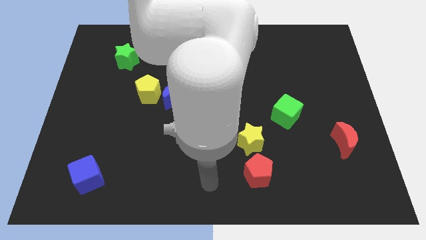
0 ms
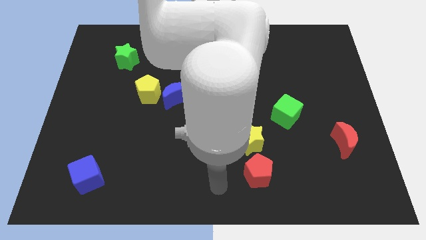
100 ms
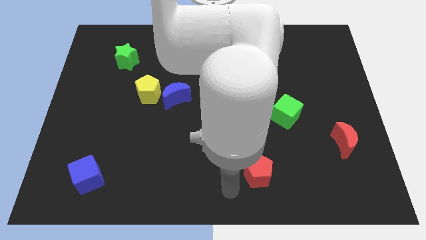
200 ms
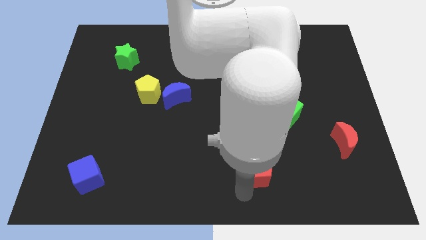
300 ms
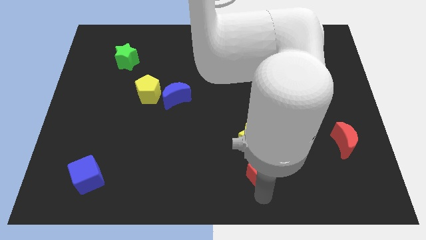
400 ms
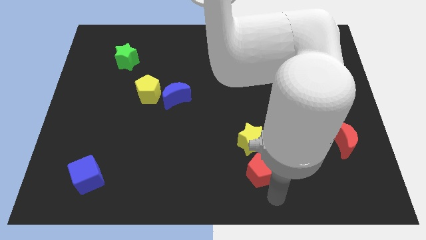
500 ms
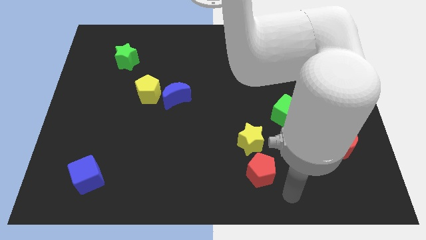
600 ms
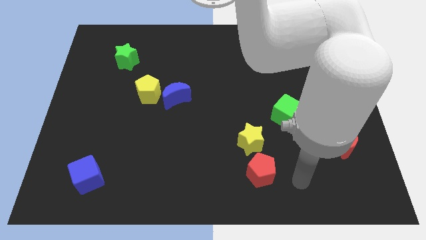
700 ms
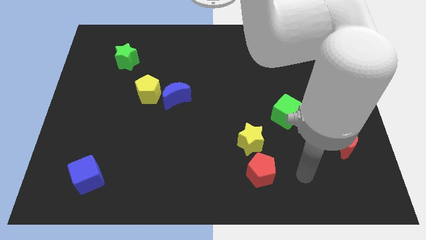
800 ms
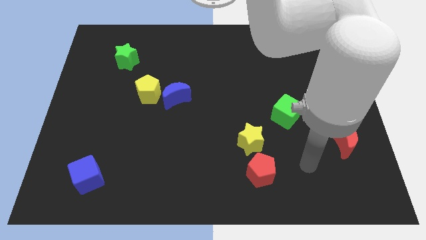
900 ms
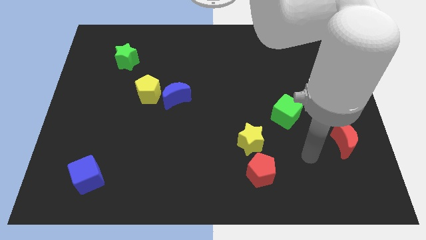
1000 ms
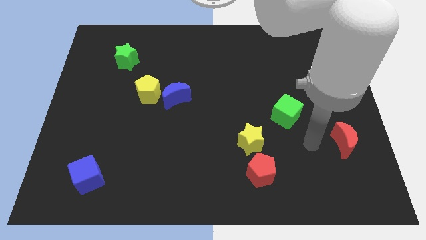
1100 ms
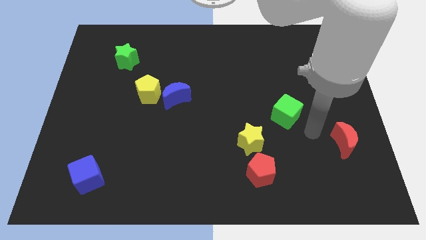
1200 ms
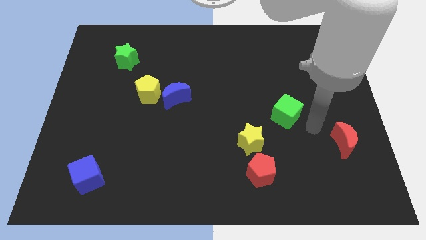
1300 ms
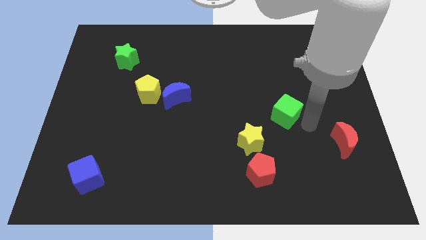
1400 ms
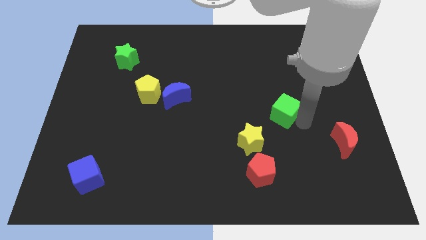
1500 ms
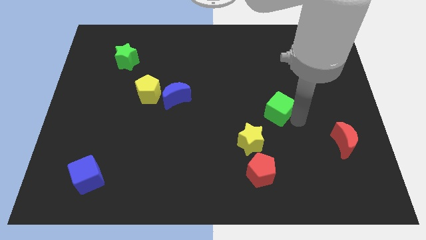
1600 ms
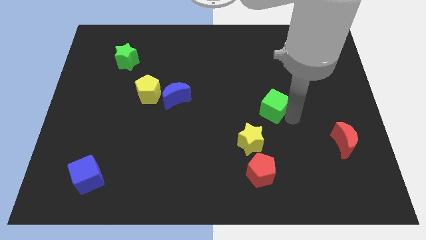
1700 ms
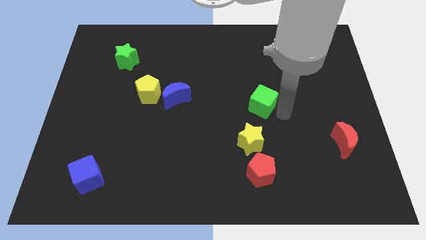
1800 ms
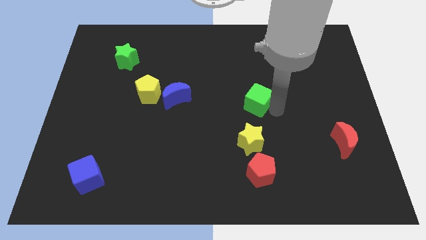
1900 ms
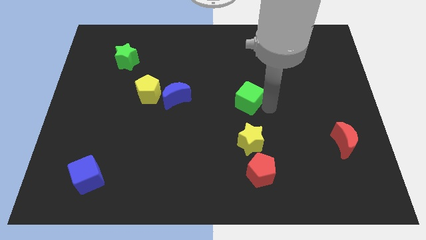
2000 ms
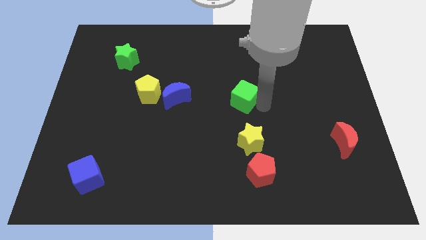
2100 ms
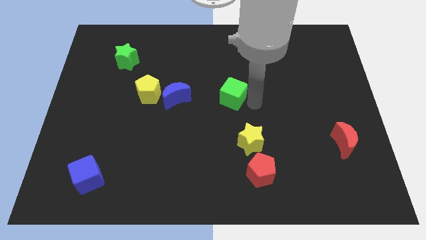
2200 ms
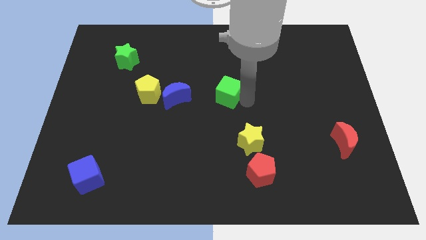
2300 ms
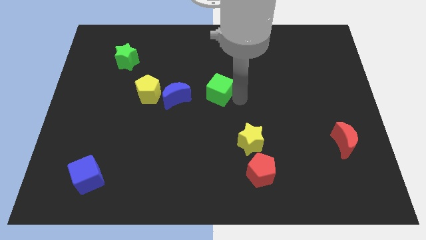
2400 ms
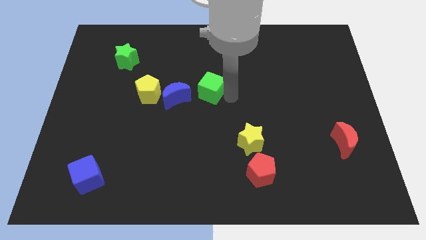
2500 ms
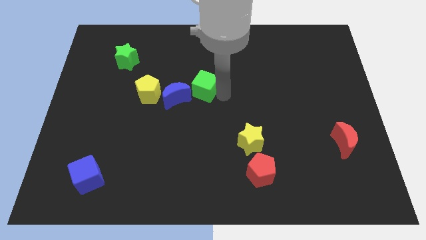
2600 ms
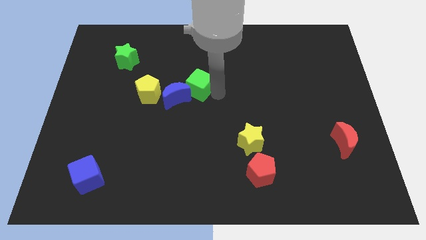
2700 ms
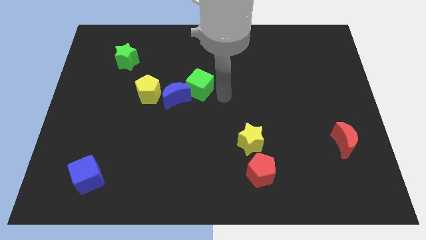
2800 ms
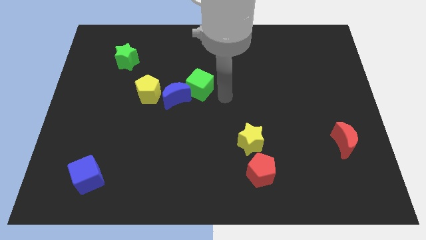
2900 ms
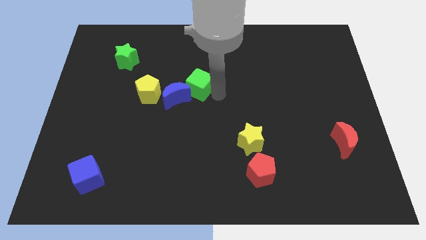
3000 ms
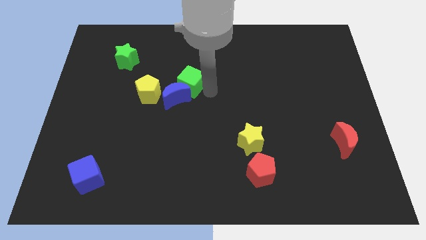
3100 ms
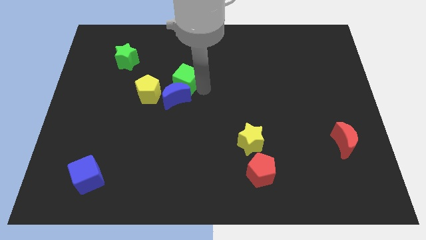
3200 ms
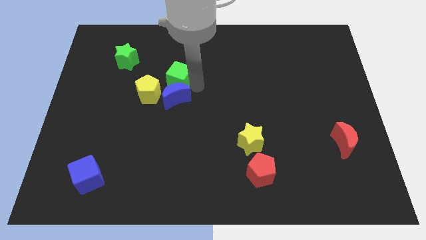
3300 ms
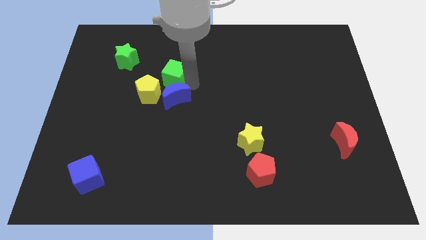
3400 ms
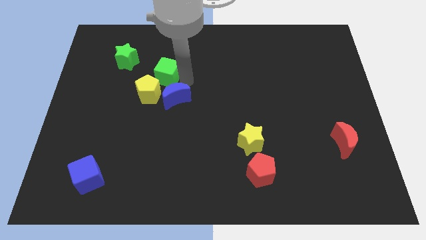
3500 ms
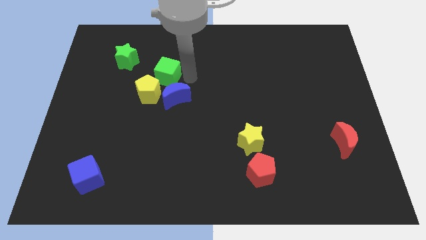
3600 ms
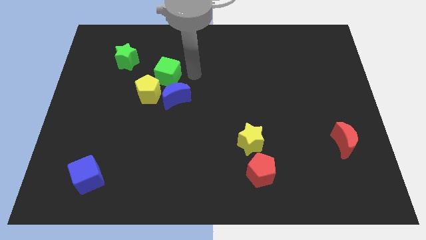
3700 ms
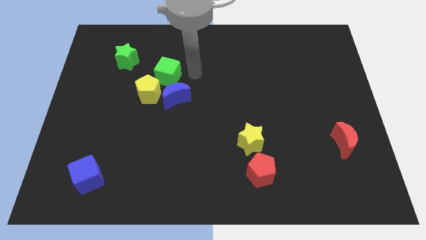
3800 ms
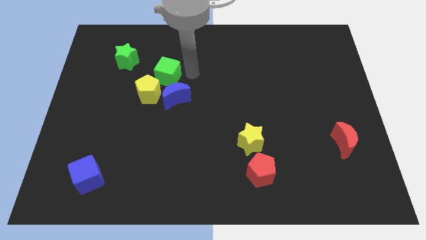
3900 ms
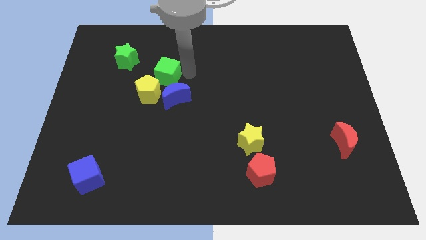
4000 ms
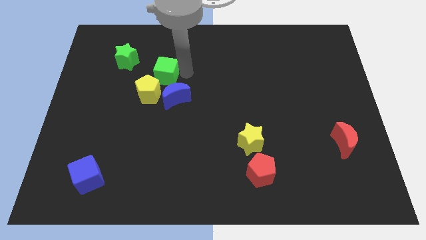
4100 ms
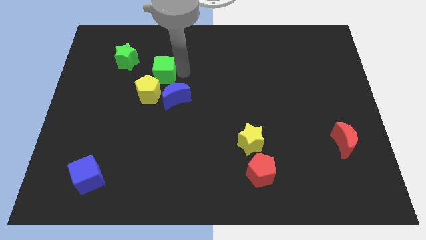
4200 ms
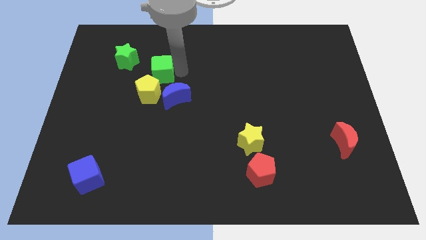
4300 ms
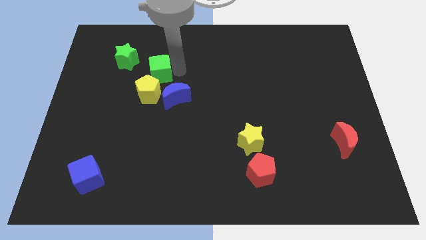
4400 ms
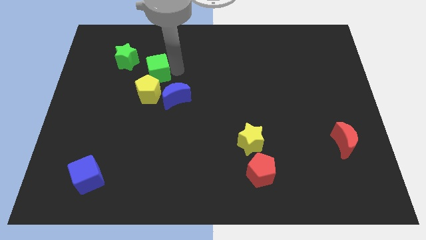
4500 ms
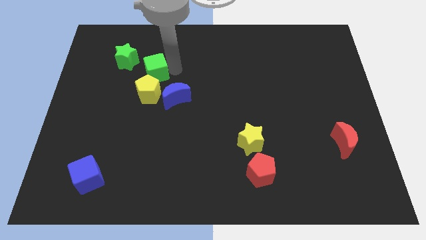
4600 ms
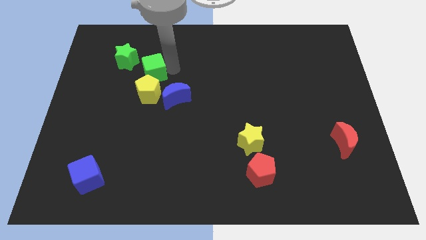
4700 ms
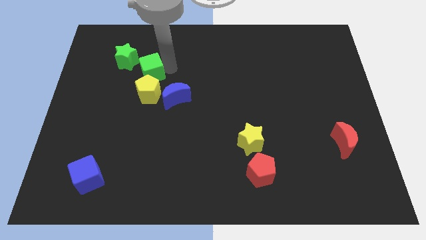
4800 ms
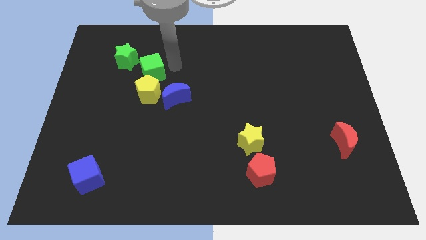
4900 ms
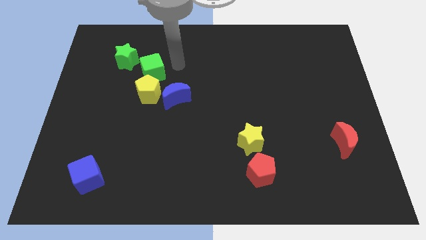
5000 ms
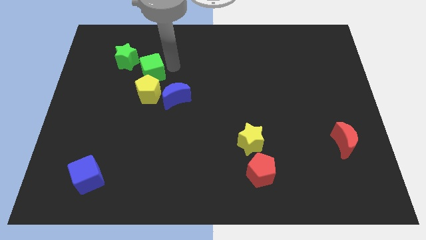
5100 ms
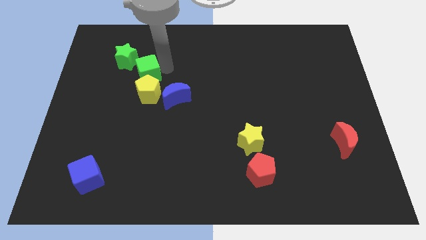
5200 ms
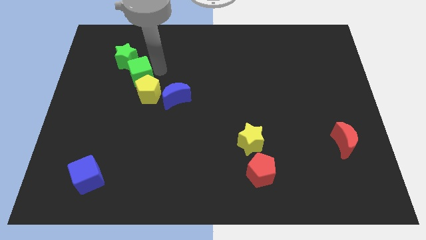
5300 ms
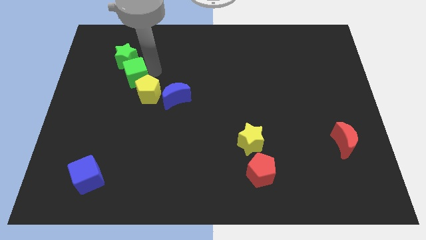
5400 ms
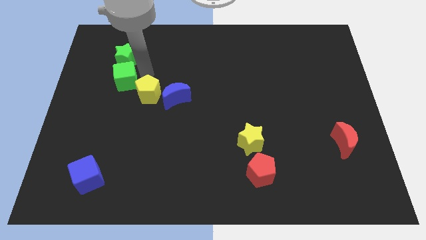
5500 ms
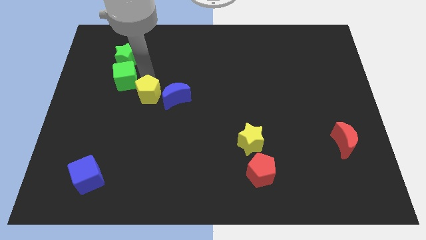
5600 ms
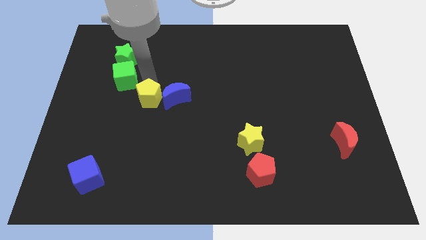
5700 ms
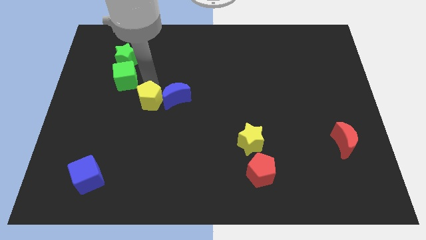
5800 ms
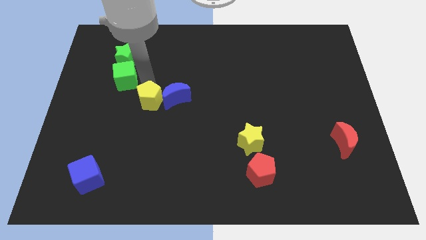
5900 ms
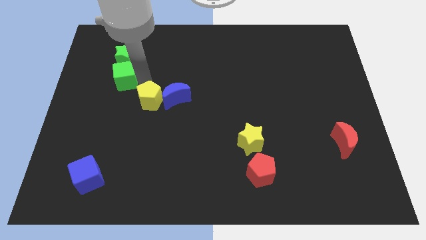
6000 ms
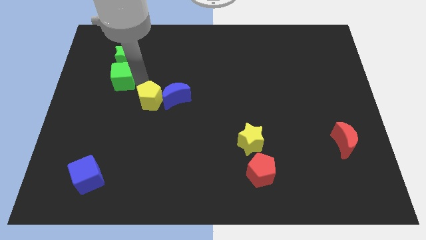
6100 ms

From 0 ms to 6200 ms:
slide the green cube to the bottom left of the green star
